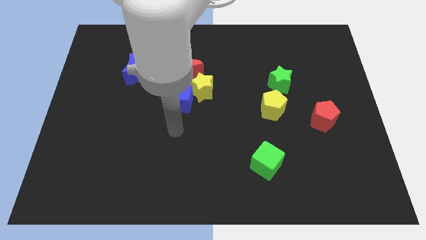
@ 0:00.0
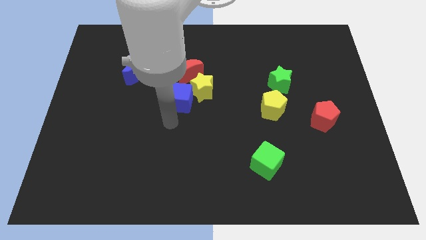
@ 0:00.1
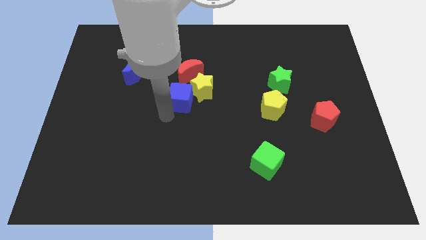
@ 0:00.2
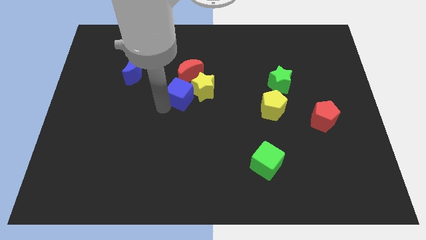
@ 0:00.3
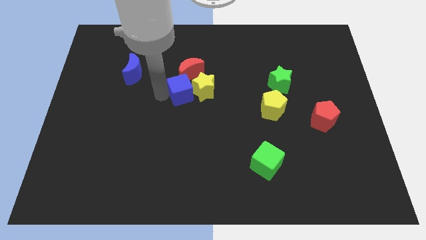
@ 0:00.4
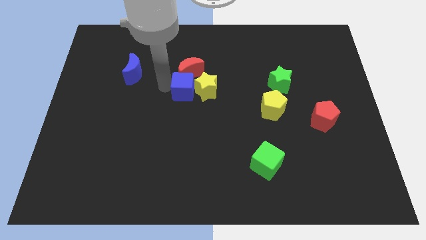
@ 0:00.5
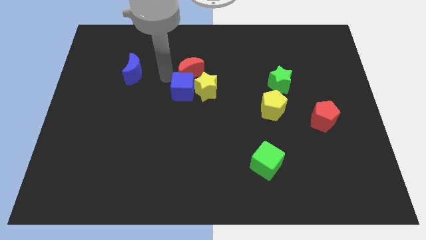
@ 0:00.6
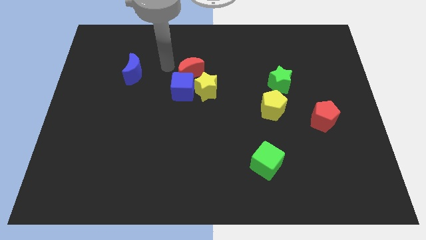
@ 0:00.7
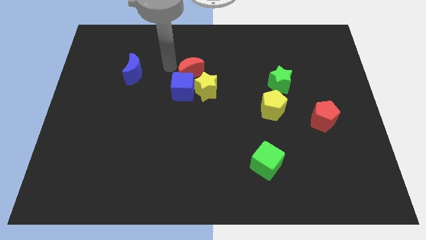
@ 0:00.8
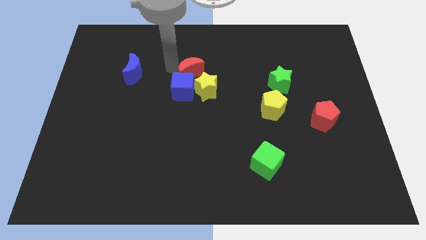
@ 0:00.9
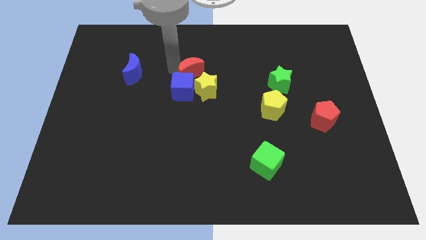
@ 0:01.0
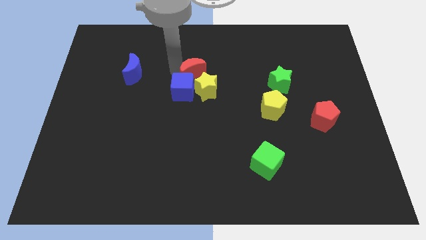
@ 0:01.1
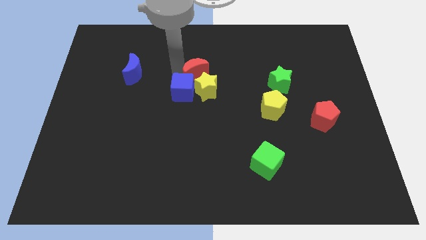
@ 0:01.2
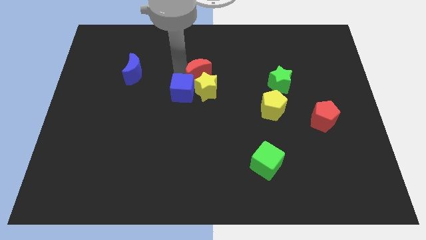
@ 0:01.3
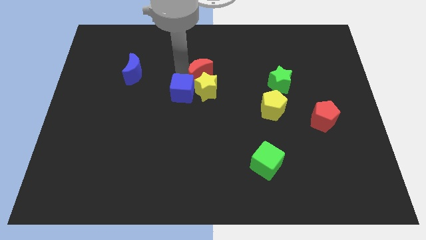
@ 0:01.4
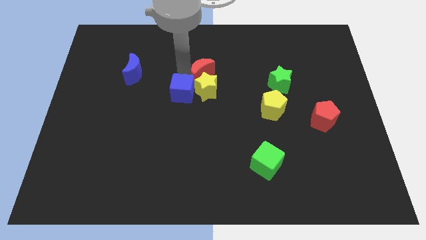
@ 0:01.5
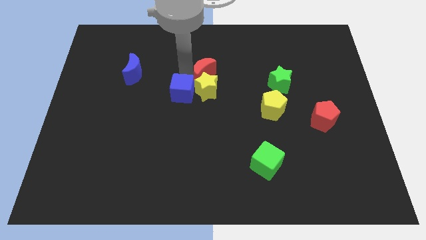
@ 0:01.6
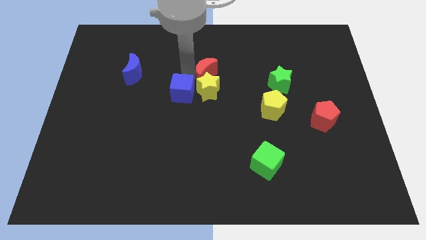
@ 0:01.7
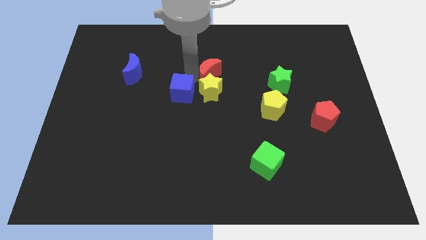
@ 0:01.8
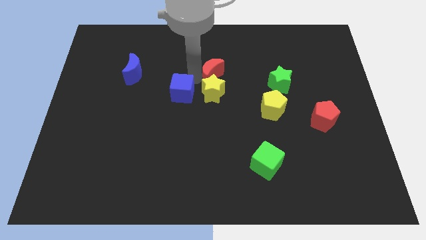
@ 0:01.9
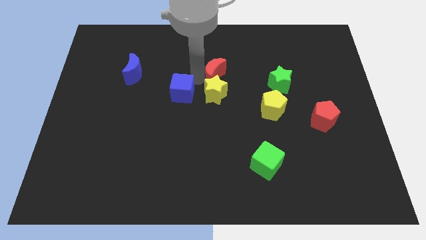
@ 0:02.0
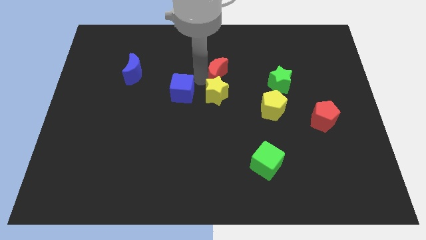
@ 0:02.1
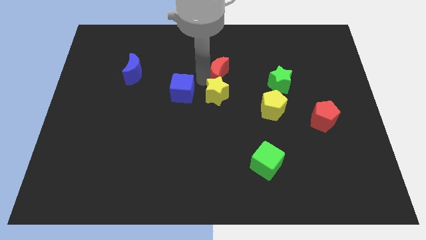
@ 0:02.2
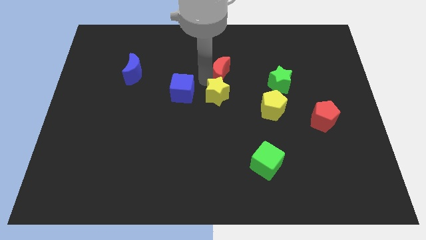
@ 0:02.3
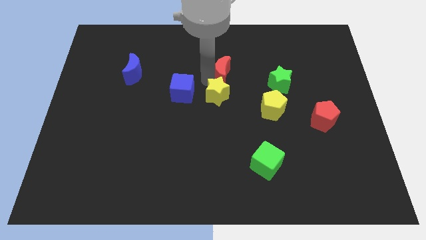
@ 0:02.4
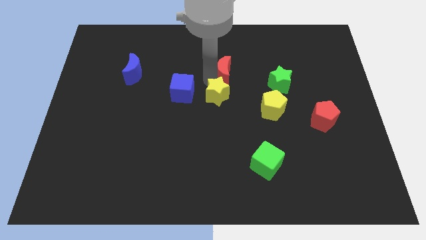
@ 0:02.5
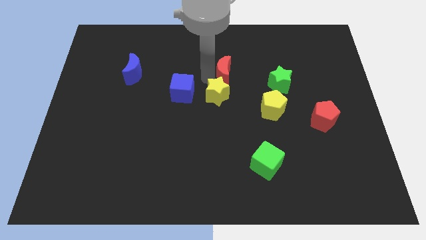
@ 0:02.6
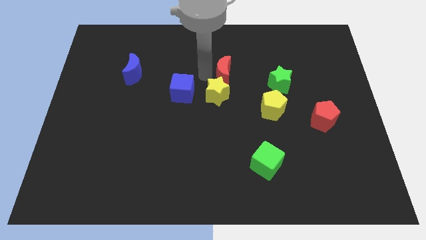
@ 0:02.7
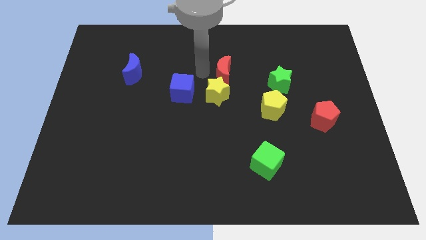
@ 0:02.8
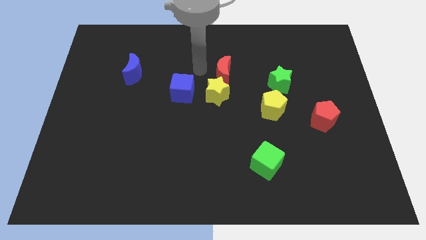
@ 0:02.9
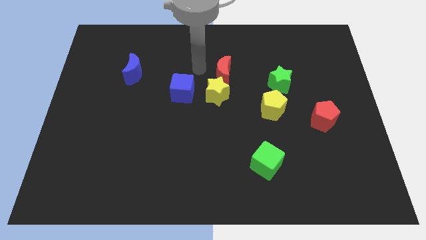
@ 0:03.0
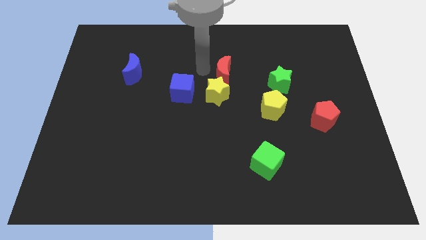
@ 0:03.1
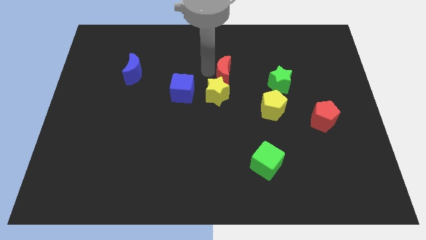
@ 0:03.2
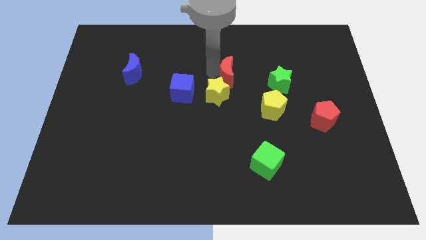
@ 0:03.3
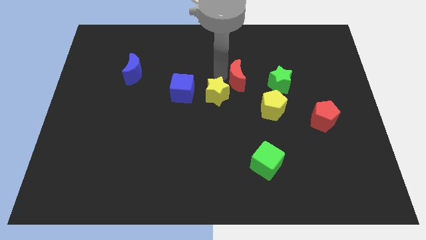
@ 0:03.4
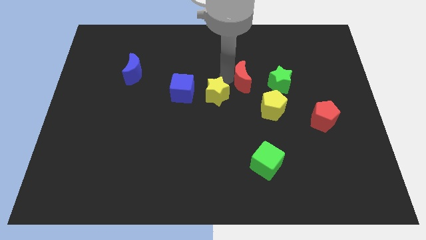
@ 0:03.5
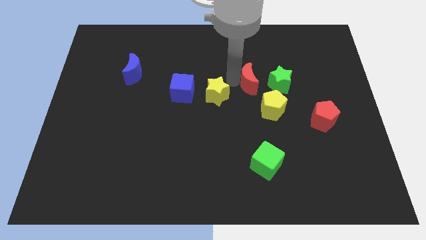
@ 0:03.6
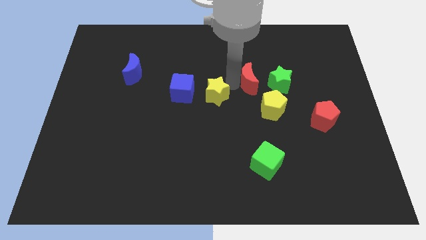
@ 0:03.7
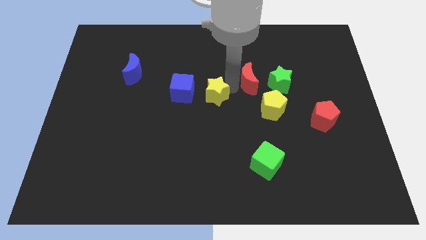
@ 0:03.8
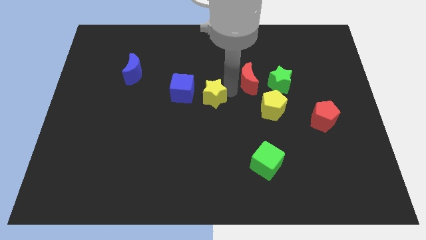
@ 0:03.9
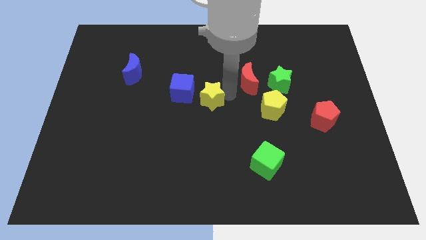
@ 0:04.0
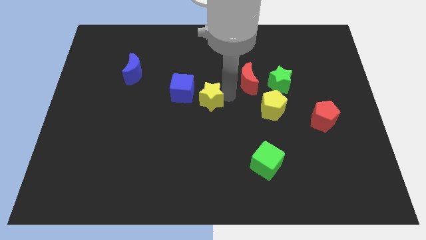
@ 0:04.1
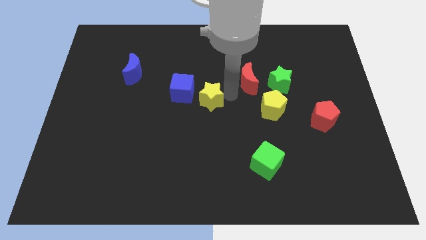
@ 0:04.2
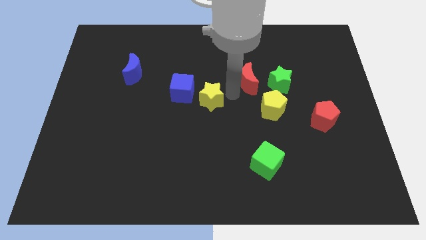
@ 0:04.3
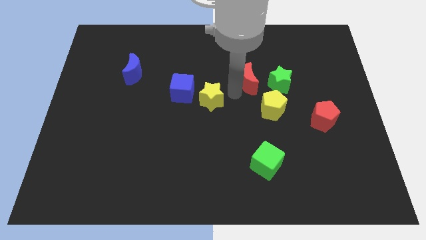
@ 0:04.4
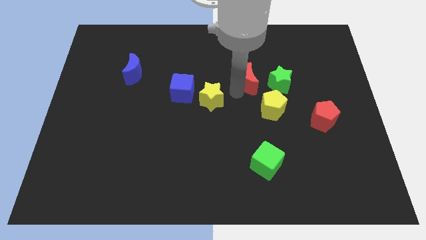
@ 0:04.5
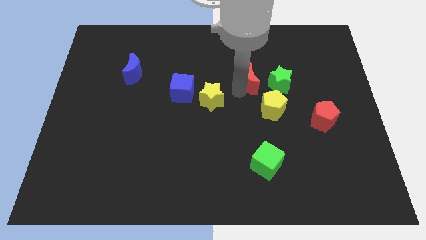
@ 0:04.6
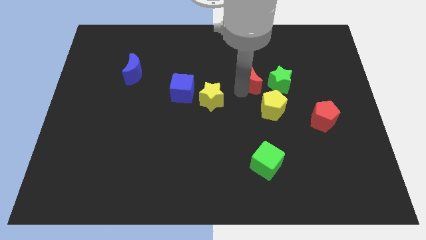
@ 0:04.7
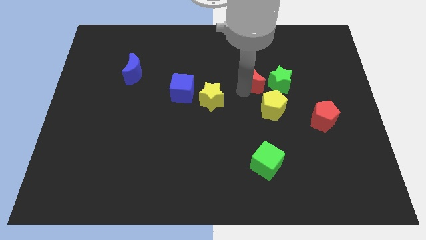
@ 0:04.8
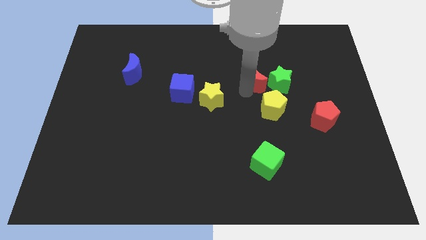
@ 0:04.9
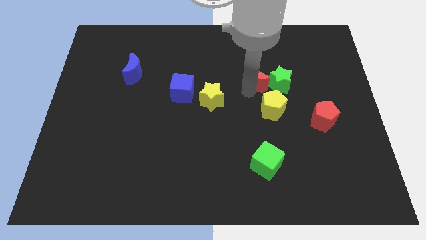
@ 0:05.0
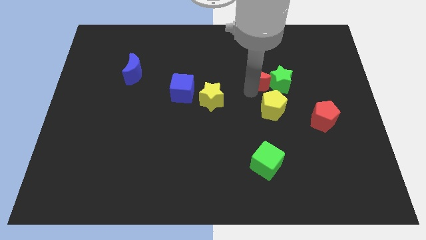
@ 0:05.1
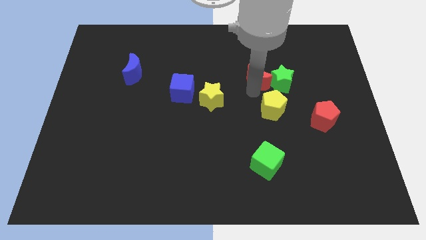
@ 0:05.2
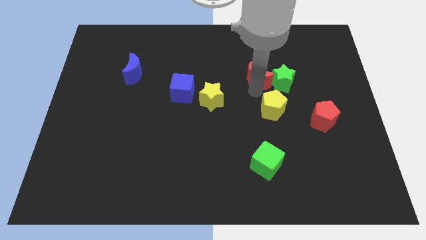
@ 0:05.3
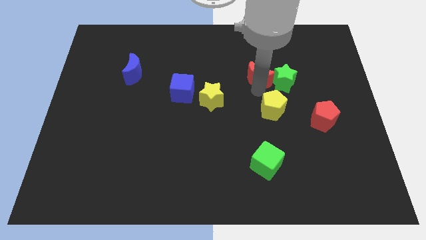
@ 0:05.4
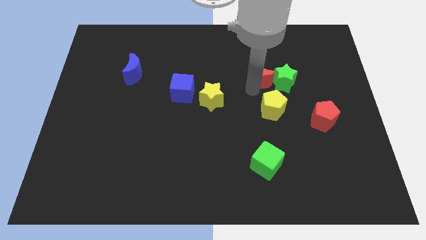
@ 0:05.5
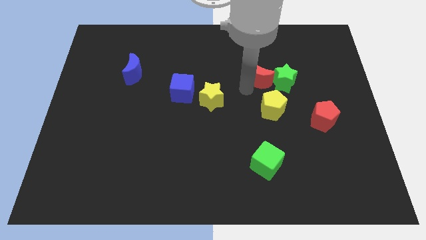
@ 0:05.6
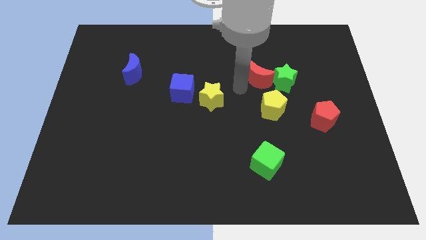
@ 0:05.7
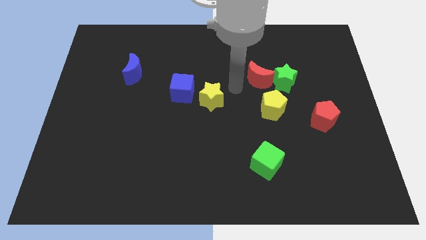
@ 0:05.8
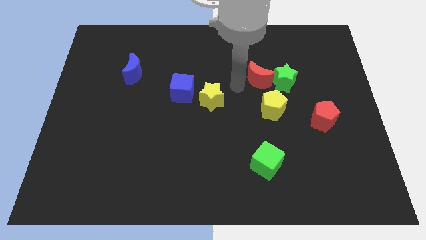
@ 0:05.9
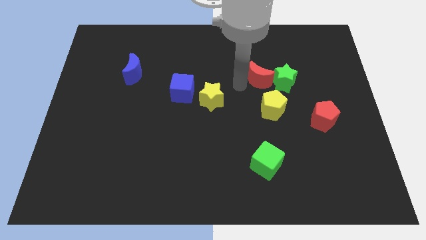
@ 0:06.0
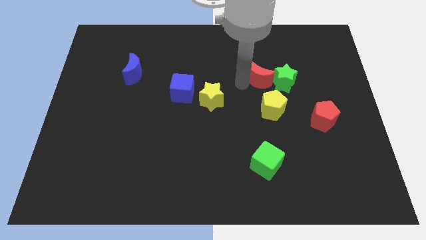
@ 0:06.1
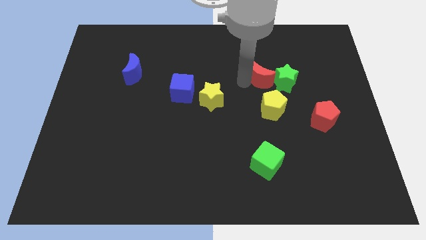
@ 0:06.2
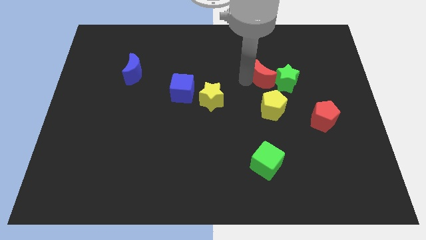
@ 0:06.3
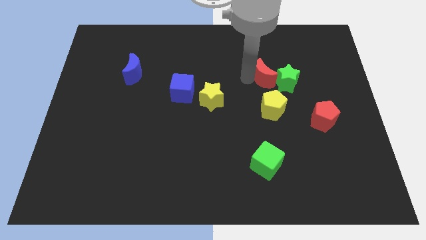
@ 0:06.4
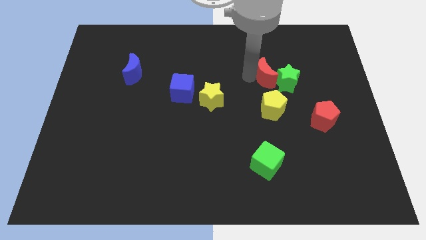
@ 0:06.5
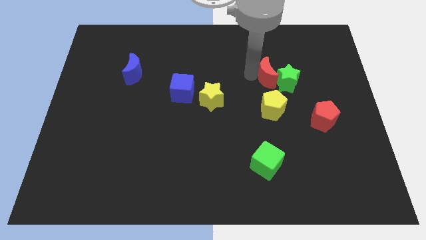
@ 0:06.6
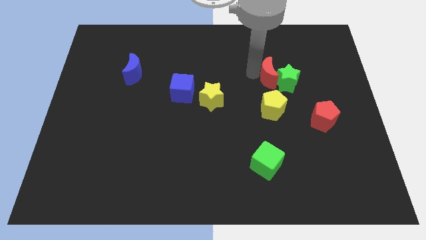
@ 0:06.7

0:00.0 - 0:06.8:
move the red moon right

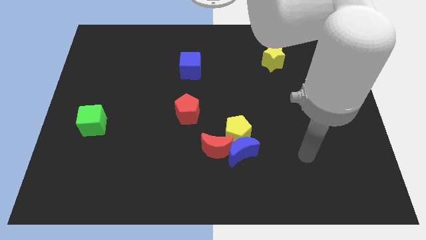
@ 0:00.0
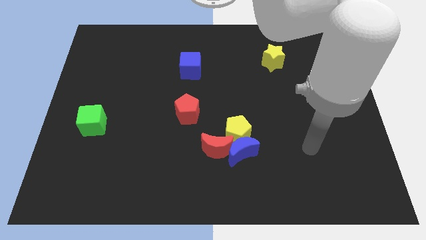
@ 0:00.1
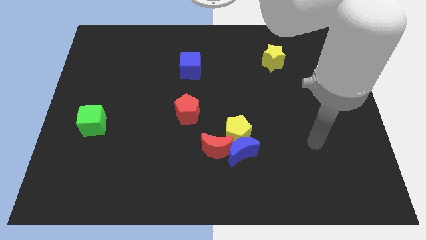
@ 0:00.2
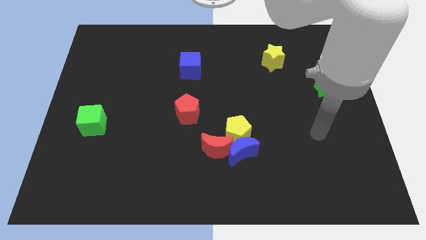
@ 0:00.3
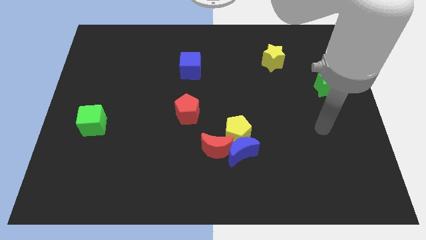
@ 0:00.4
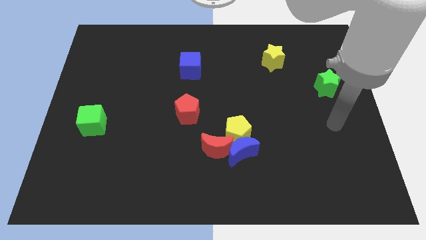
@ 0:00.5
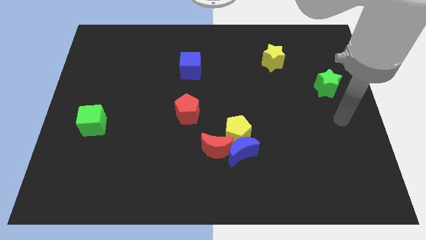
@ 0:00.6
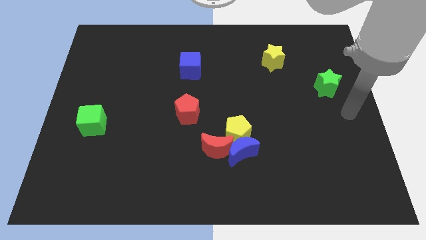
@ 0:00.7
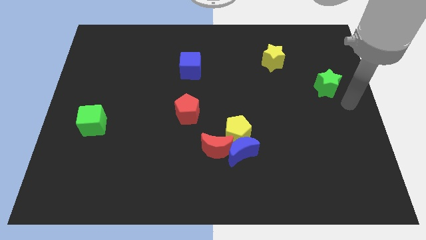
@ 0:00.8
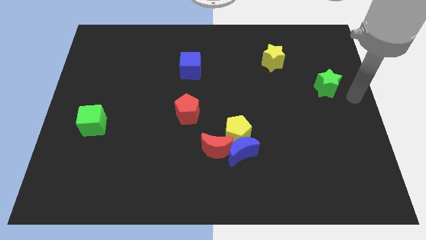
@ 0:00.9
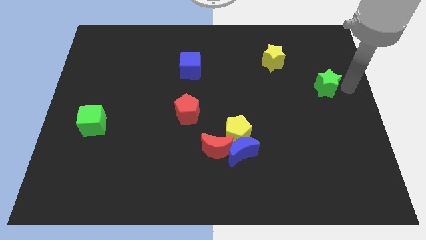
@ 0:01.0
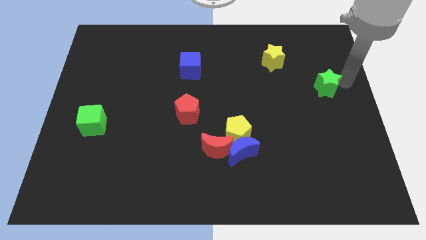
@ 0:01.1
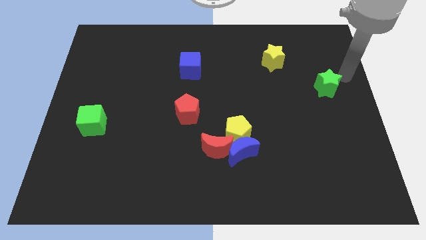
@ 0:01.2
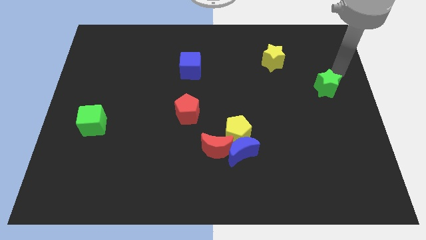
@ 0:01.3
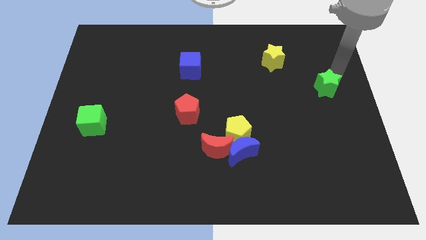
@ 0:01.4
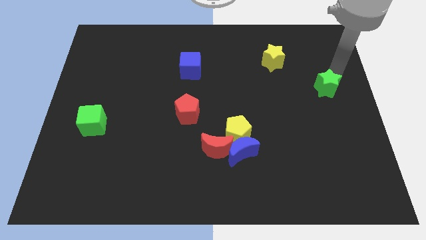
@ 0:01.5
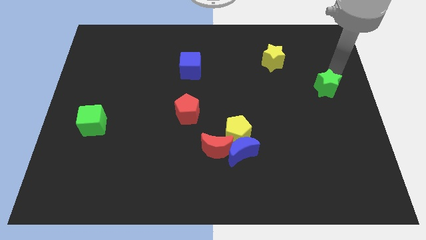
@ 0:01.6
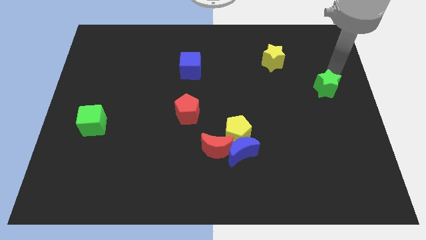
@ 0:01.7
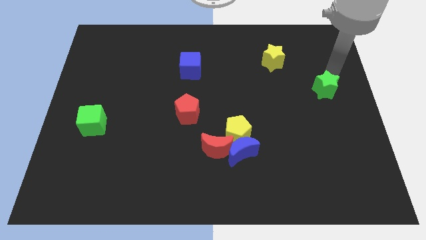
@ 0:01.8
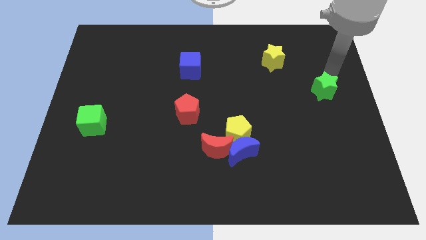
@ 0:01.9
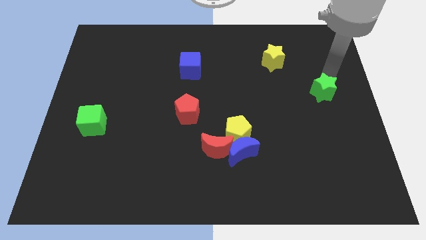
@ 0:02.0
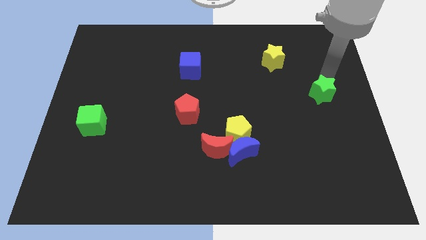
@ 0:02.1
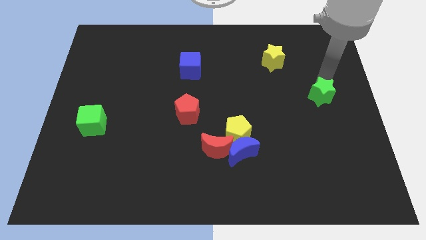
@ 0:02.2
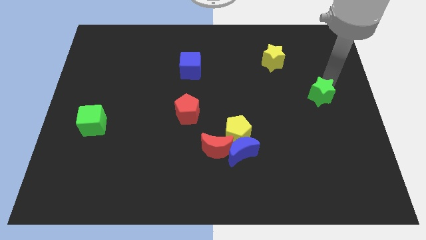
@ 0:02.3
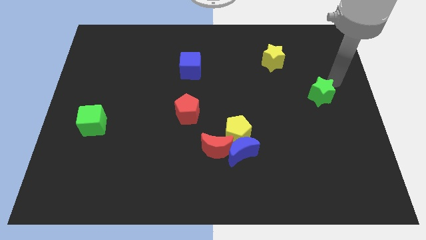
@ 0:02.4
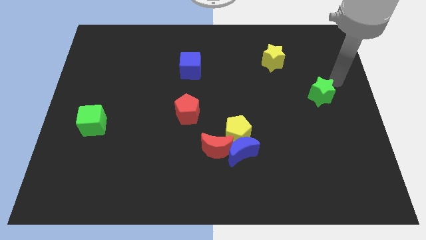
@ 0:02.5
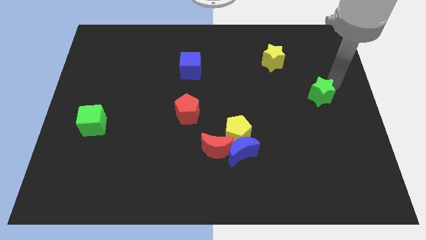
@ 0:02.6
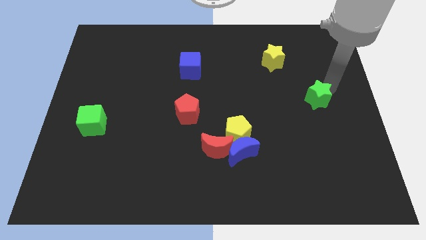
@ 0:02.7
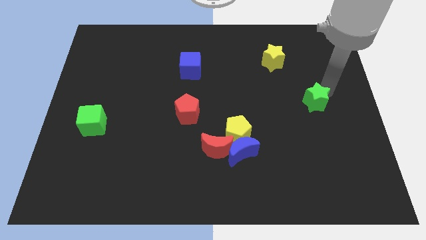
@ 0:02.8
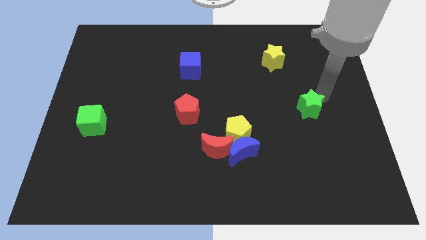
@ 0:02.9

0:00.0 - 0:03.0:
slide the green star a bit downwards and then left
